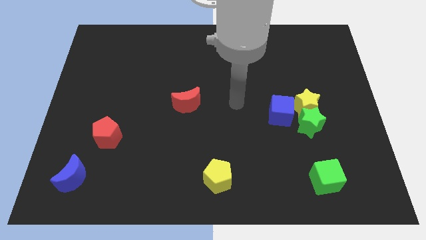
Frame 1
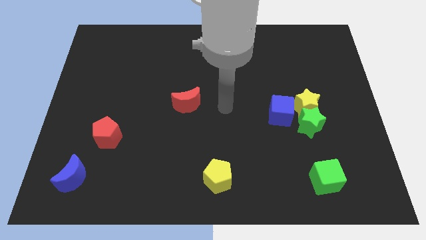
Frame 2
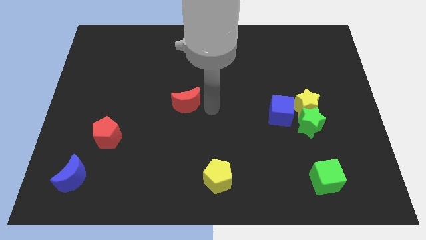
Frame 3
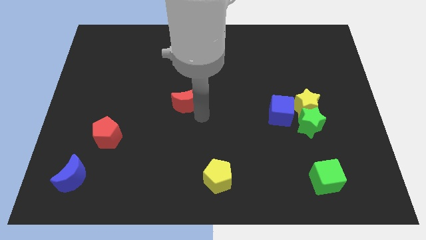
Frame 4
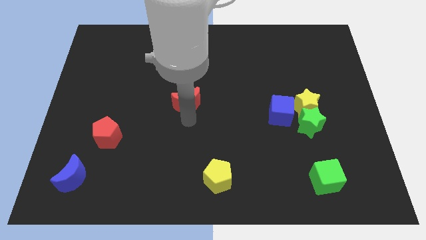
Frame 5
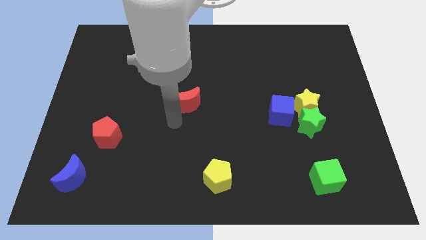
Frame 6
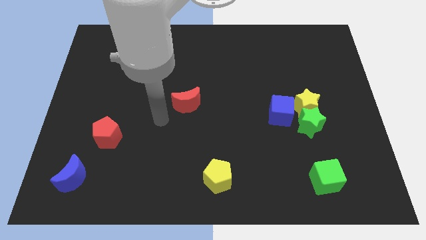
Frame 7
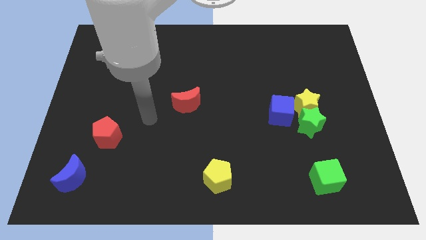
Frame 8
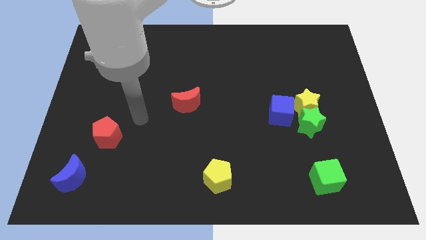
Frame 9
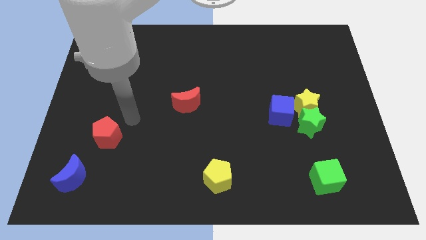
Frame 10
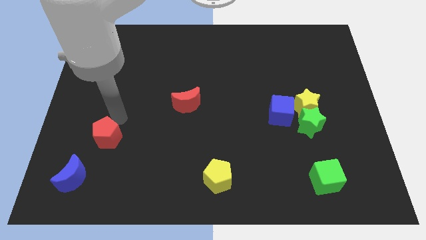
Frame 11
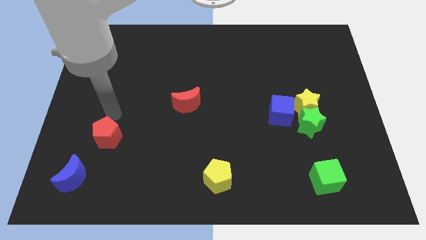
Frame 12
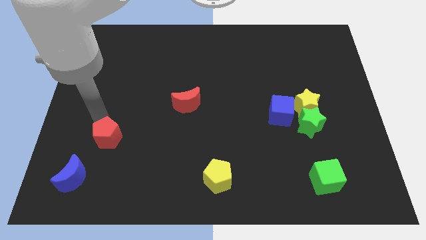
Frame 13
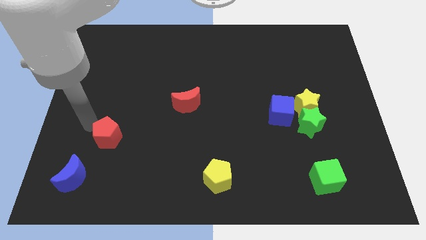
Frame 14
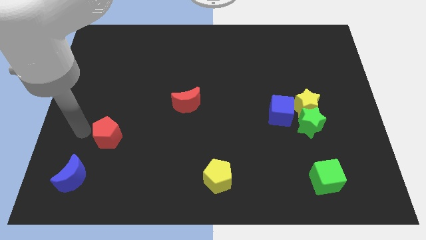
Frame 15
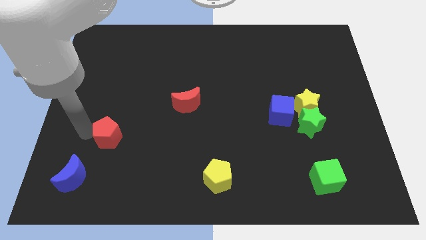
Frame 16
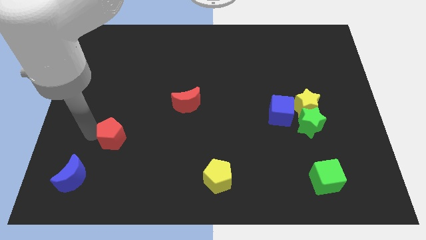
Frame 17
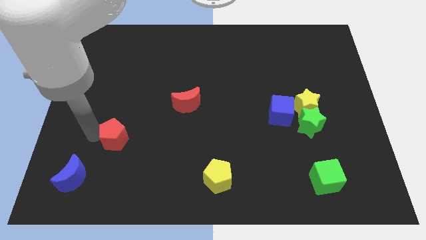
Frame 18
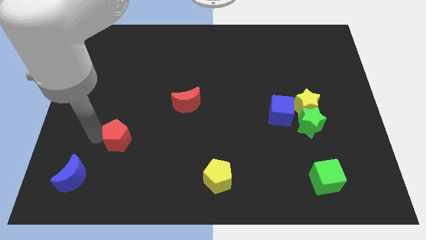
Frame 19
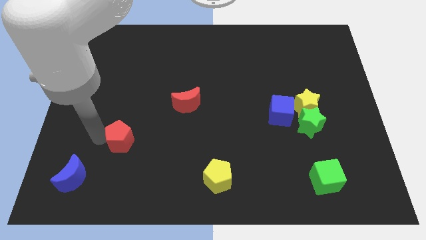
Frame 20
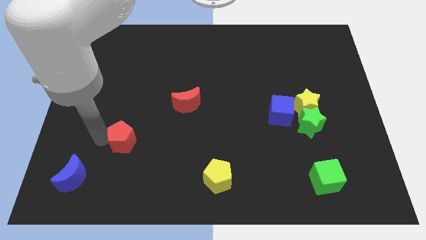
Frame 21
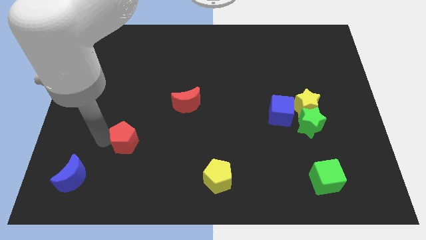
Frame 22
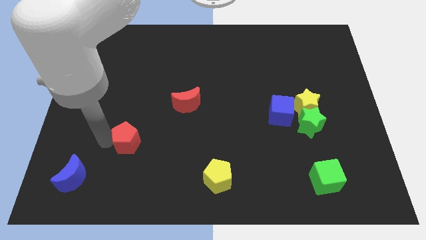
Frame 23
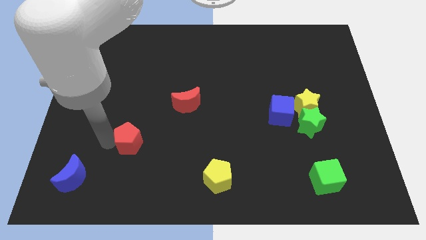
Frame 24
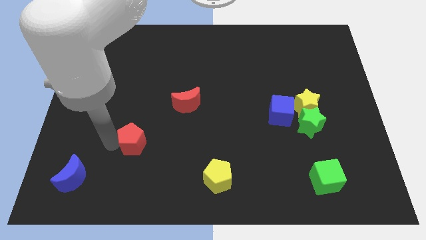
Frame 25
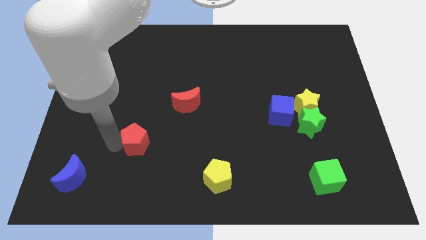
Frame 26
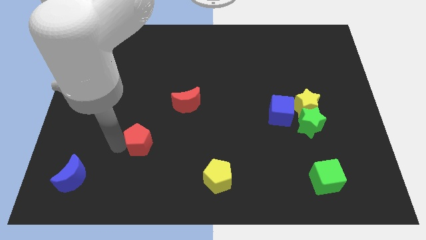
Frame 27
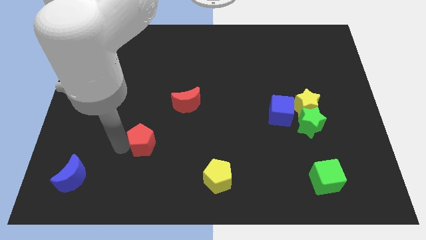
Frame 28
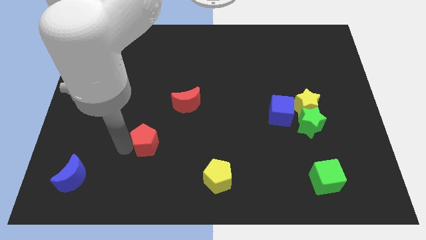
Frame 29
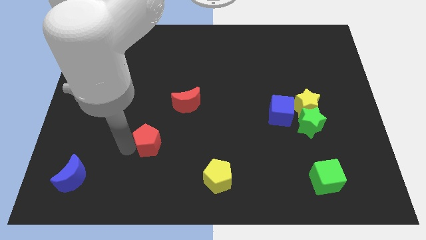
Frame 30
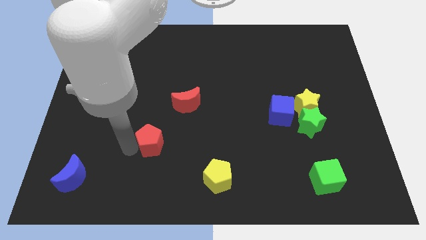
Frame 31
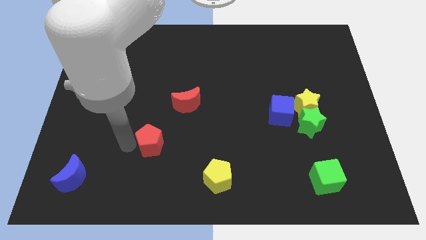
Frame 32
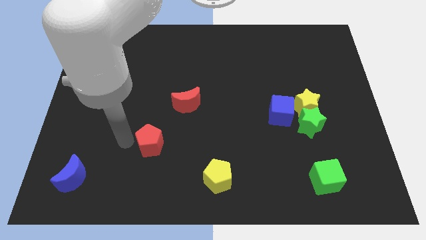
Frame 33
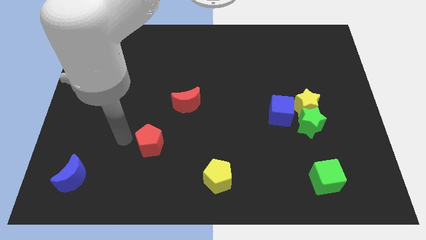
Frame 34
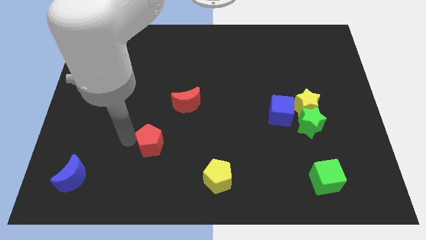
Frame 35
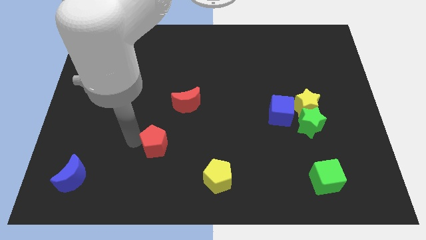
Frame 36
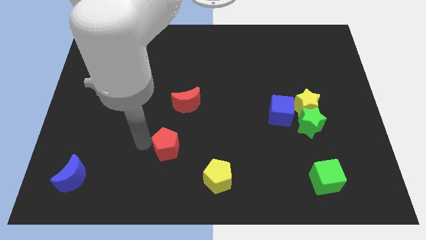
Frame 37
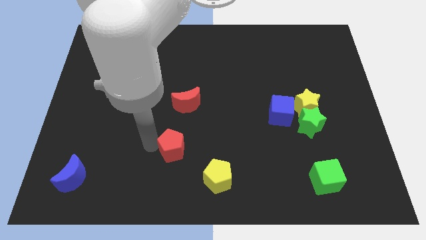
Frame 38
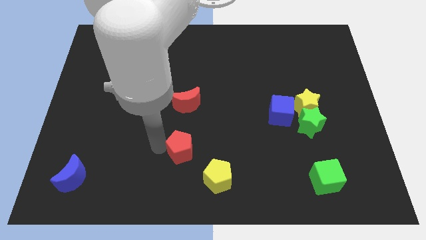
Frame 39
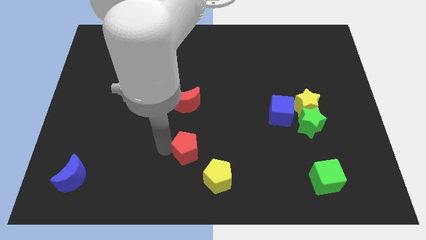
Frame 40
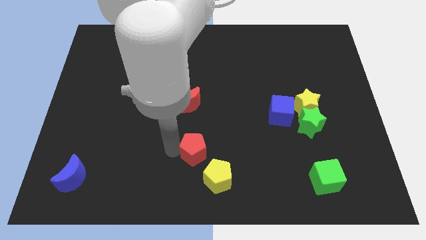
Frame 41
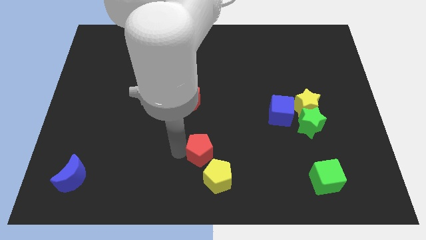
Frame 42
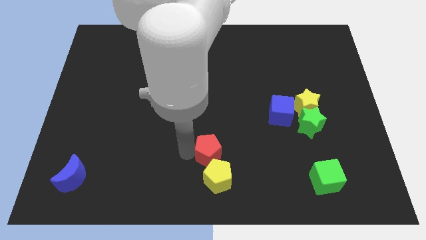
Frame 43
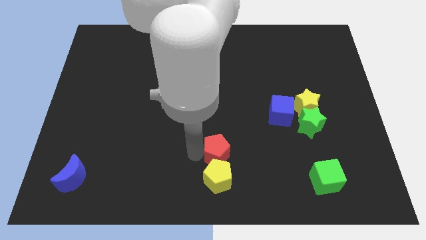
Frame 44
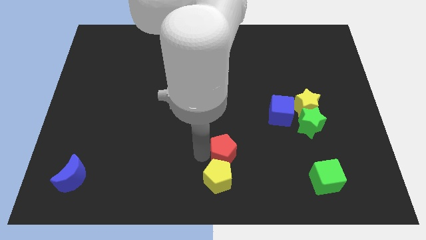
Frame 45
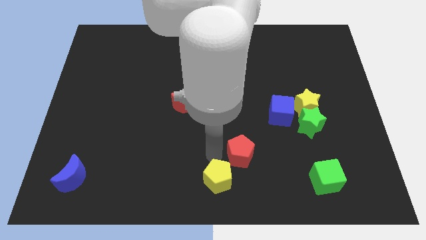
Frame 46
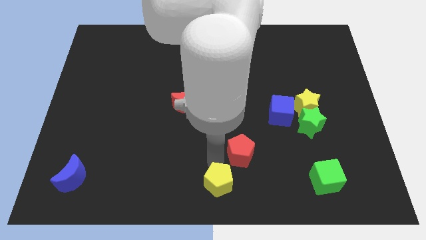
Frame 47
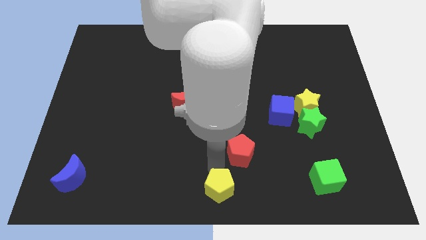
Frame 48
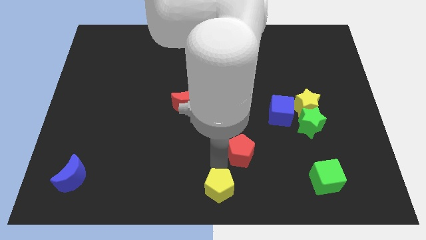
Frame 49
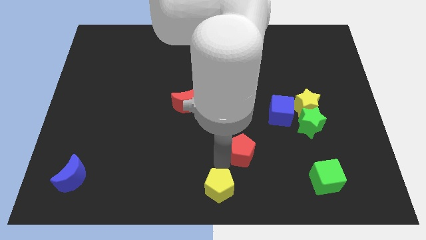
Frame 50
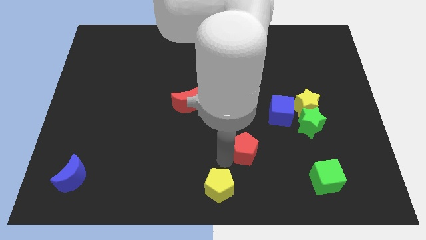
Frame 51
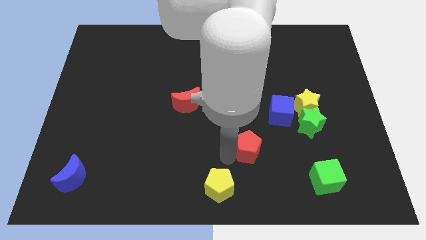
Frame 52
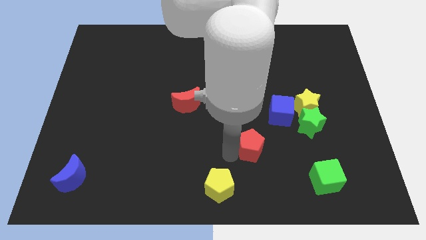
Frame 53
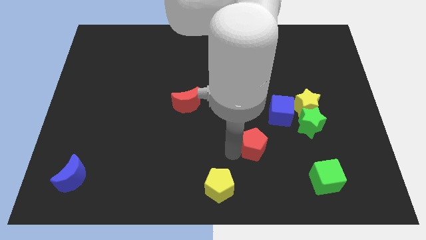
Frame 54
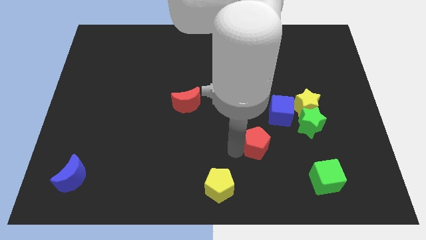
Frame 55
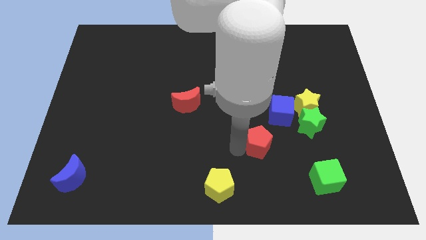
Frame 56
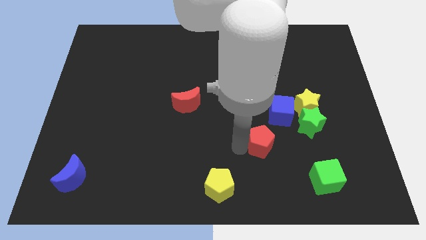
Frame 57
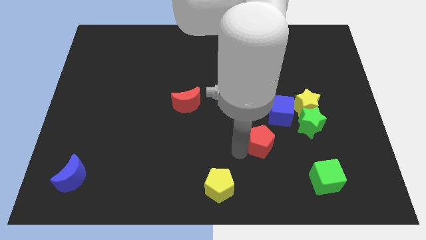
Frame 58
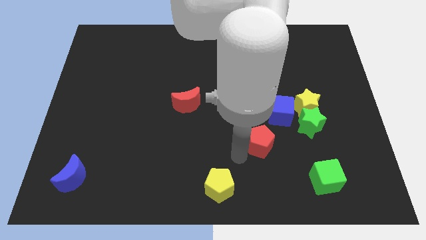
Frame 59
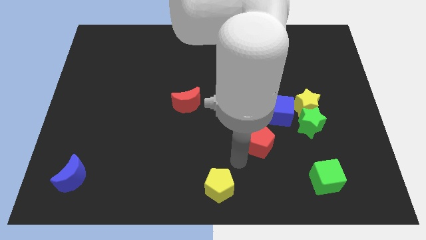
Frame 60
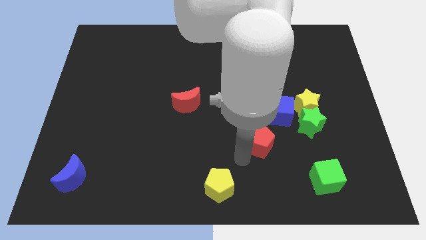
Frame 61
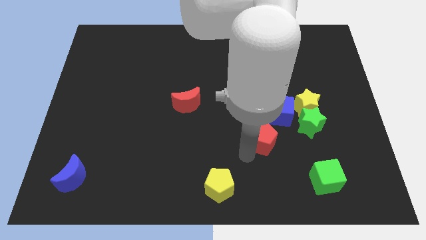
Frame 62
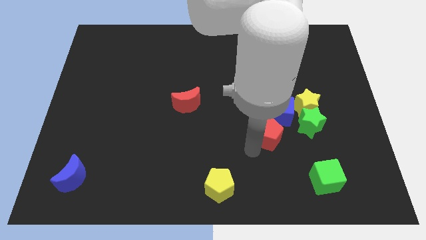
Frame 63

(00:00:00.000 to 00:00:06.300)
move the red pentagon diagonally down and to the left of the yellow star

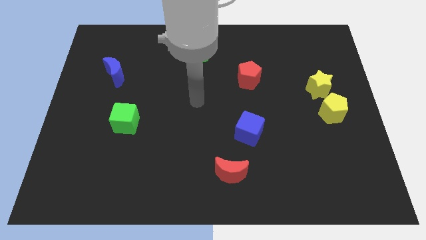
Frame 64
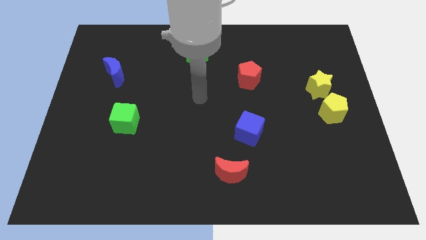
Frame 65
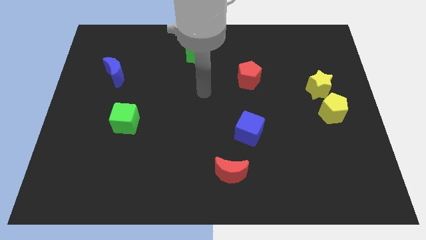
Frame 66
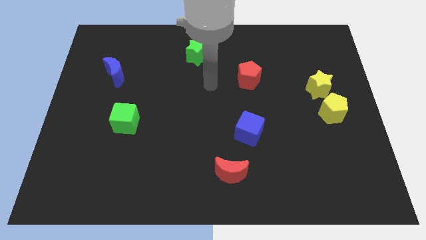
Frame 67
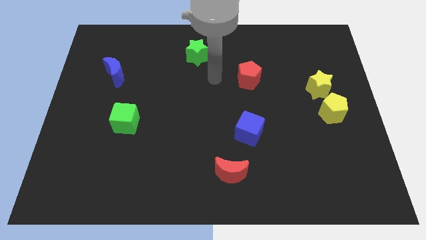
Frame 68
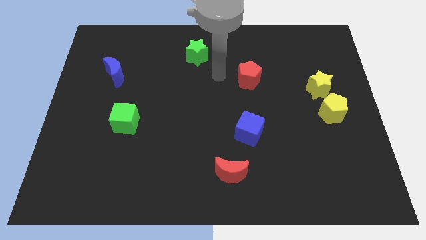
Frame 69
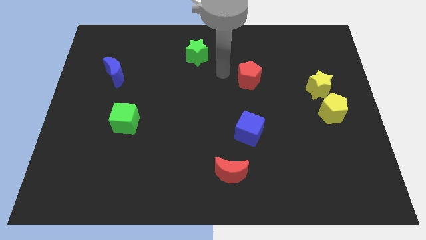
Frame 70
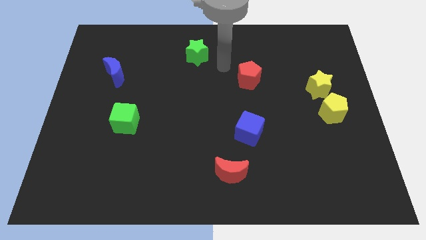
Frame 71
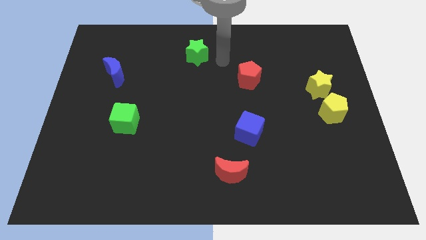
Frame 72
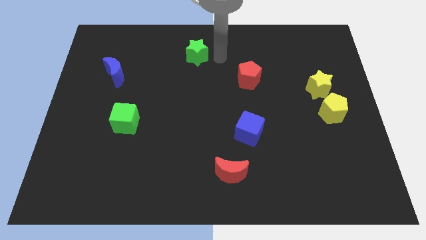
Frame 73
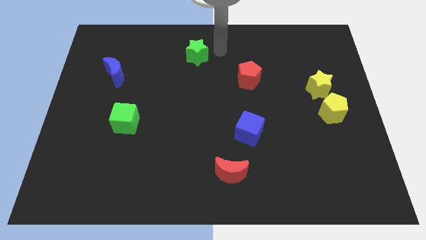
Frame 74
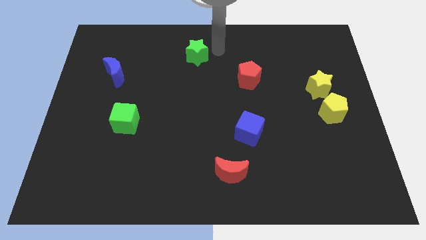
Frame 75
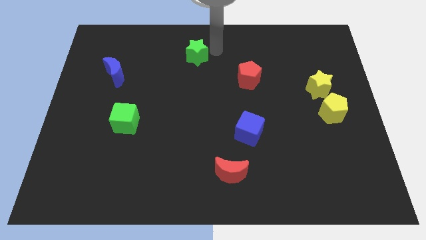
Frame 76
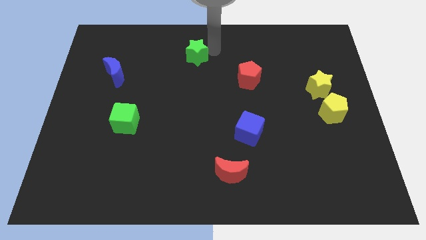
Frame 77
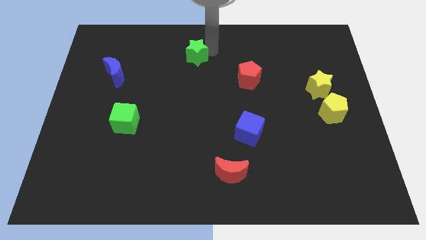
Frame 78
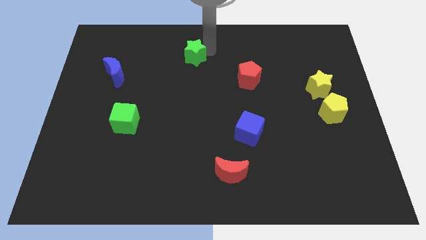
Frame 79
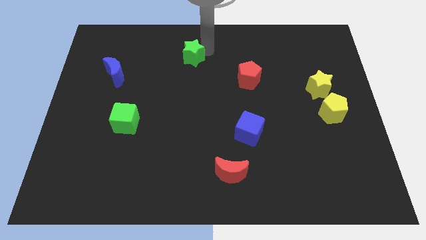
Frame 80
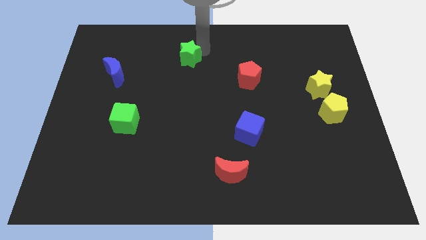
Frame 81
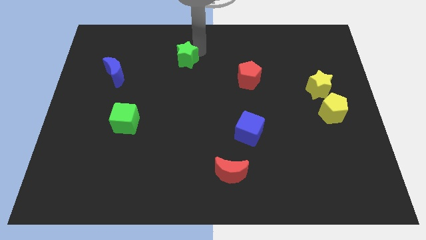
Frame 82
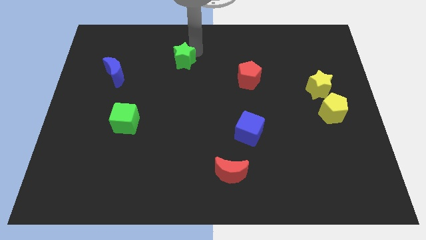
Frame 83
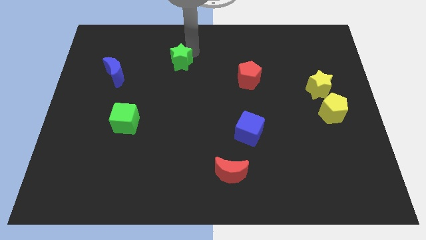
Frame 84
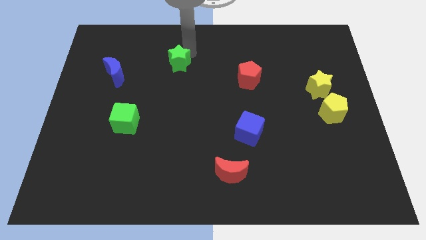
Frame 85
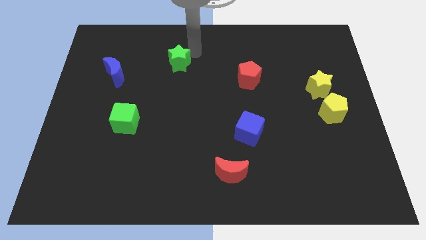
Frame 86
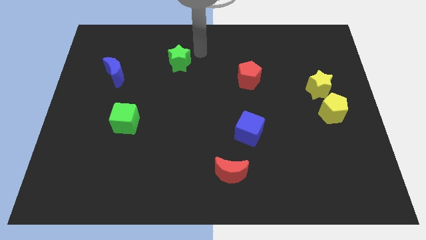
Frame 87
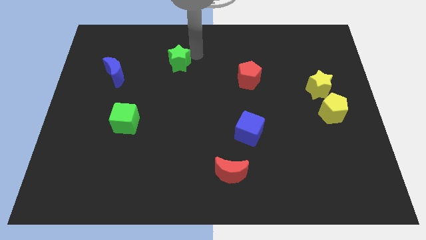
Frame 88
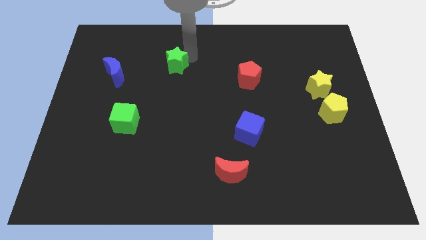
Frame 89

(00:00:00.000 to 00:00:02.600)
put the green star just right of the blue moon
